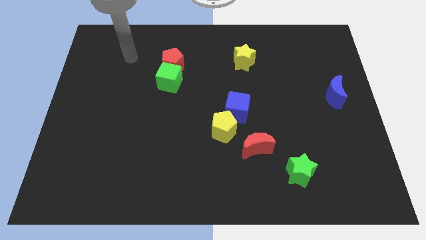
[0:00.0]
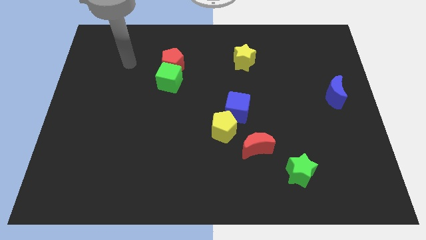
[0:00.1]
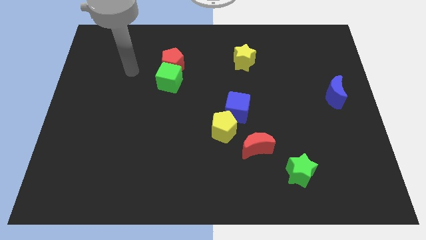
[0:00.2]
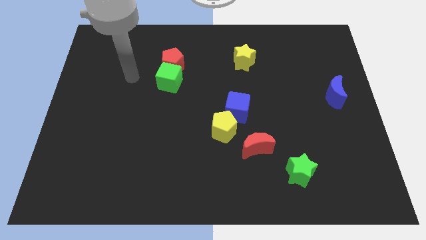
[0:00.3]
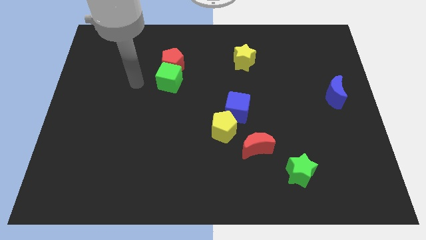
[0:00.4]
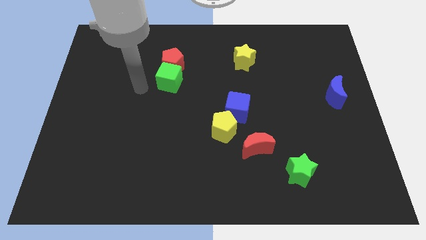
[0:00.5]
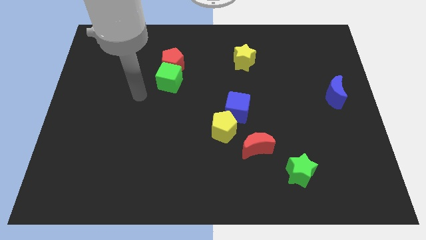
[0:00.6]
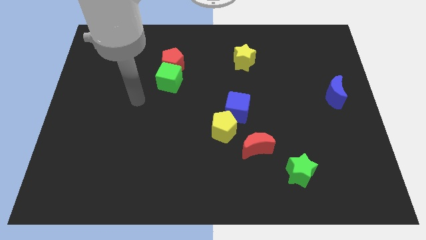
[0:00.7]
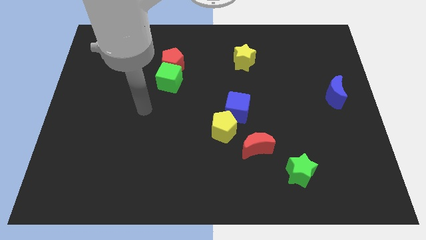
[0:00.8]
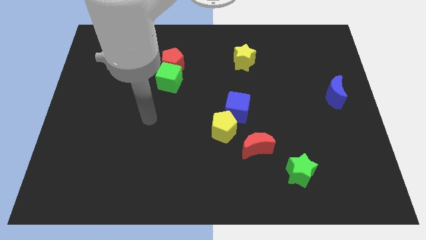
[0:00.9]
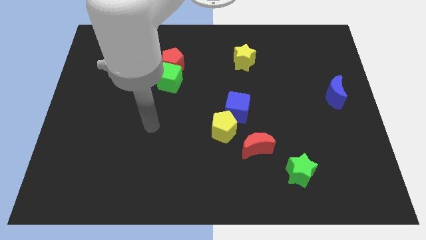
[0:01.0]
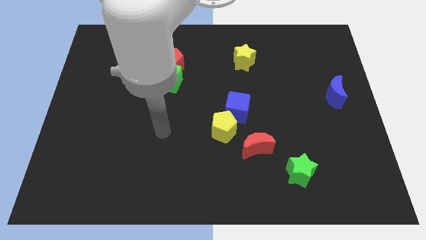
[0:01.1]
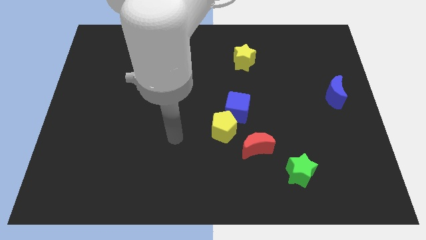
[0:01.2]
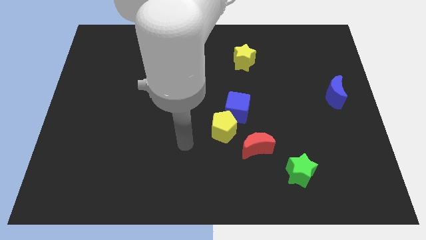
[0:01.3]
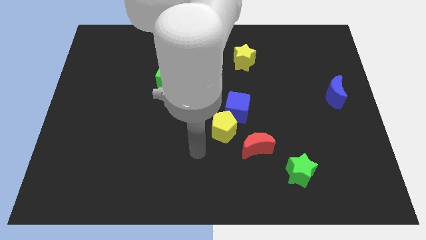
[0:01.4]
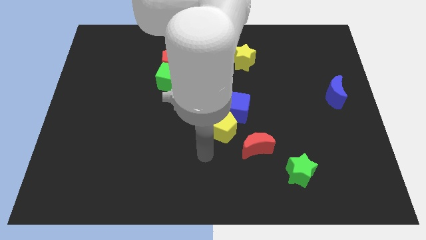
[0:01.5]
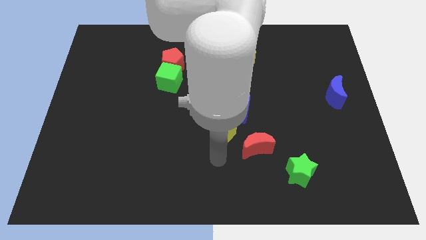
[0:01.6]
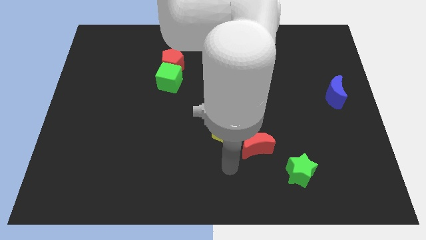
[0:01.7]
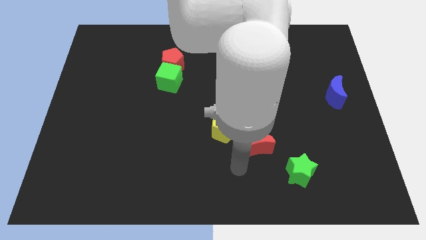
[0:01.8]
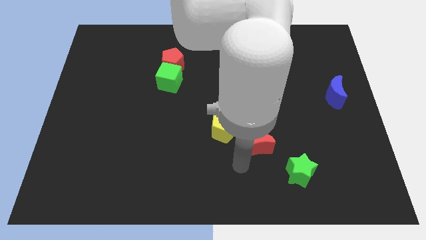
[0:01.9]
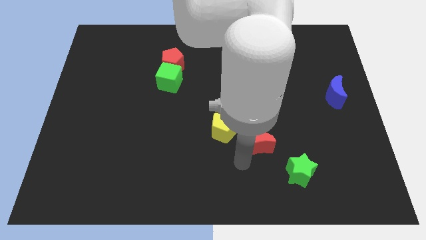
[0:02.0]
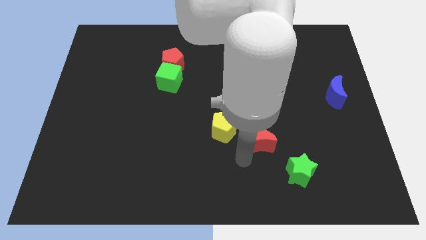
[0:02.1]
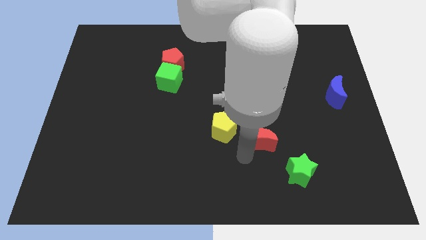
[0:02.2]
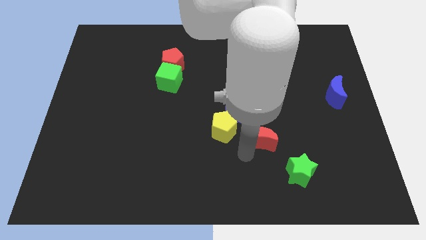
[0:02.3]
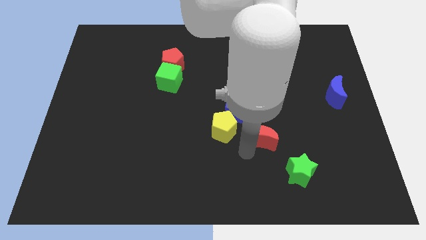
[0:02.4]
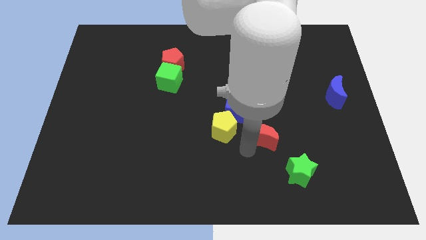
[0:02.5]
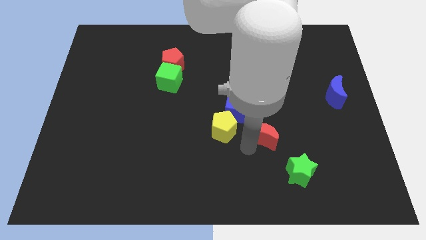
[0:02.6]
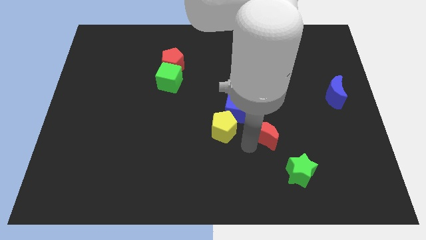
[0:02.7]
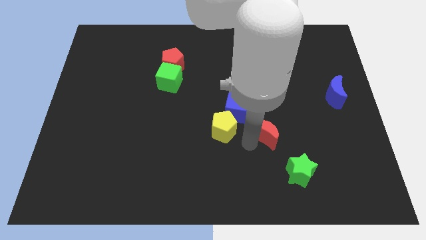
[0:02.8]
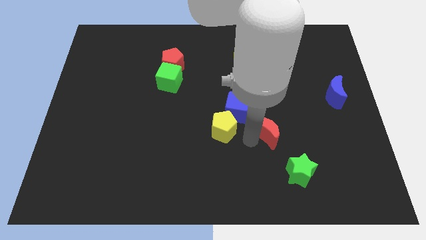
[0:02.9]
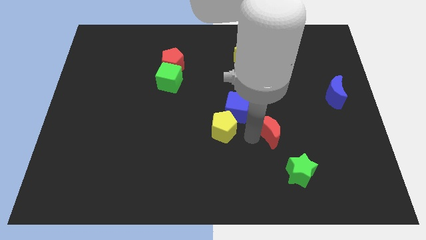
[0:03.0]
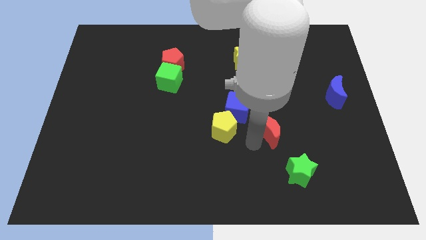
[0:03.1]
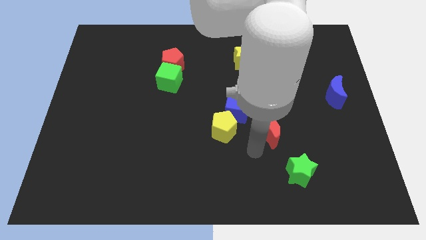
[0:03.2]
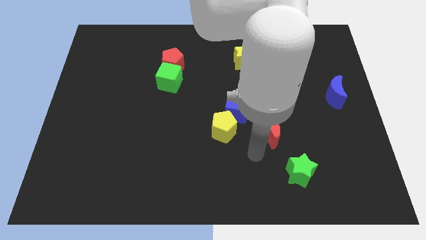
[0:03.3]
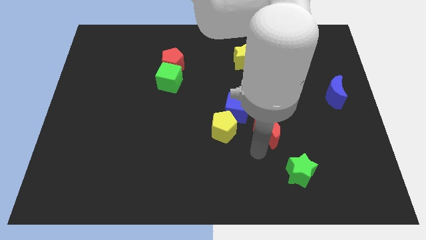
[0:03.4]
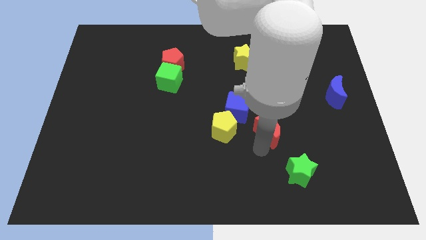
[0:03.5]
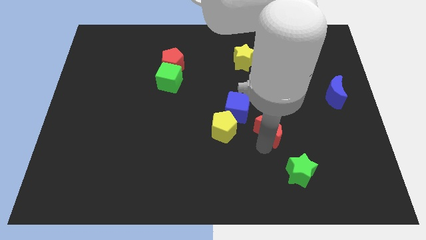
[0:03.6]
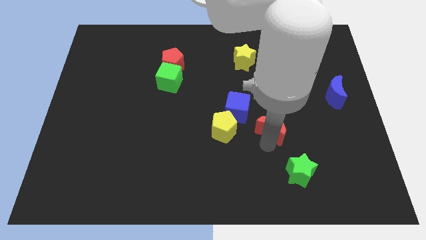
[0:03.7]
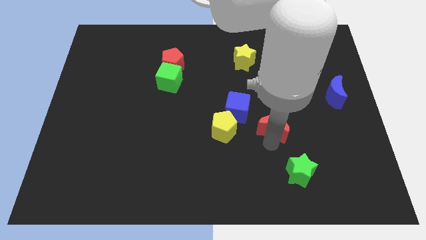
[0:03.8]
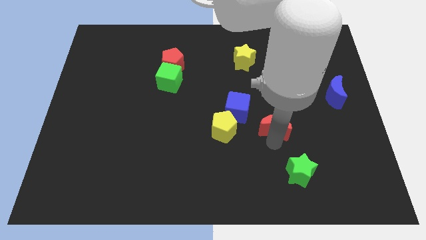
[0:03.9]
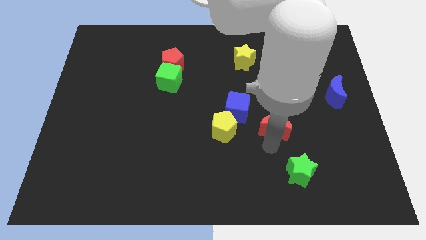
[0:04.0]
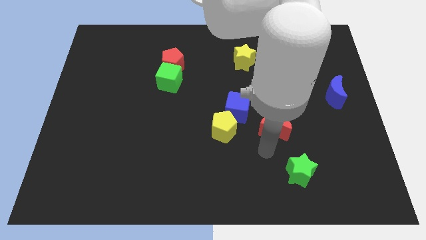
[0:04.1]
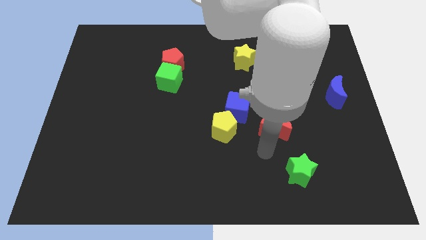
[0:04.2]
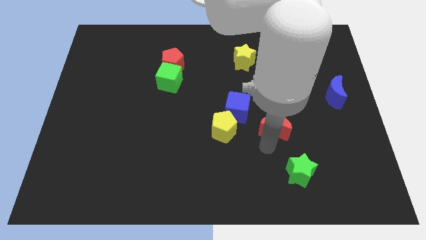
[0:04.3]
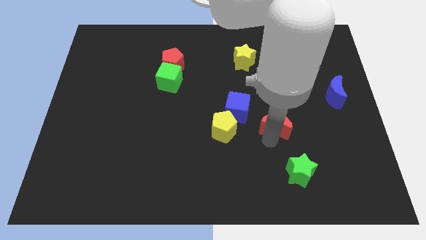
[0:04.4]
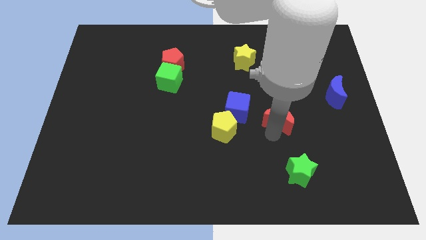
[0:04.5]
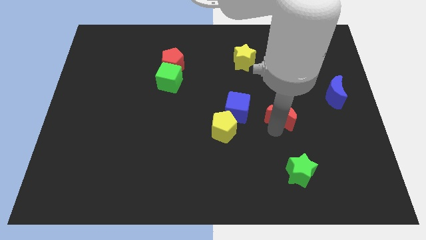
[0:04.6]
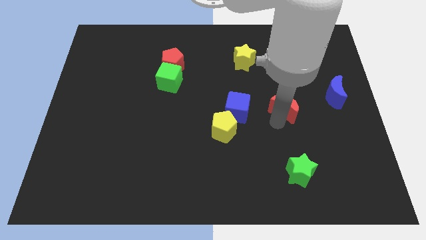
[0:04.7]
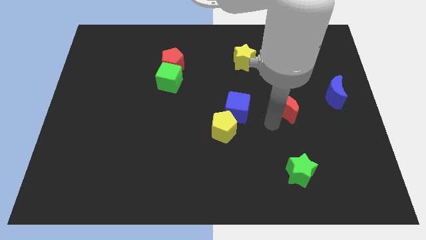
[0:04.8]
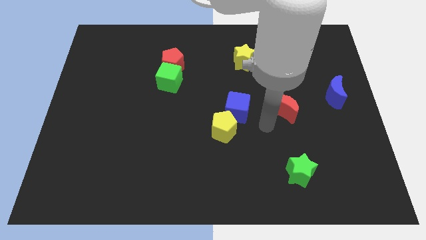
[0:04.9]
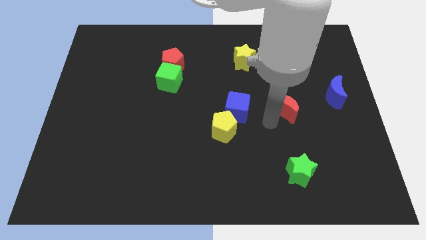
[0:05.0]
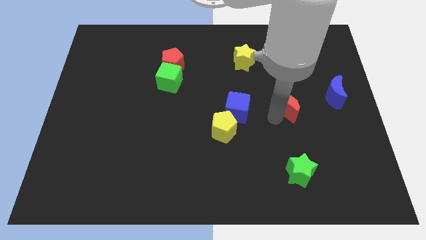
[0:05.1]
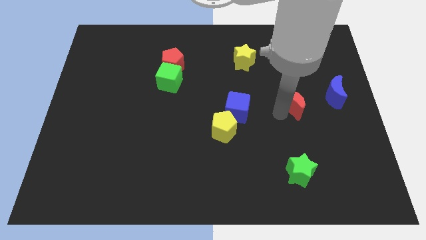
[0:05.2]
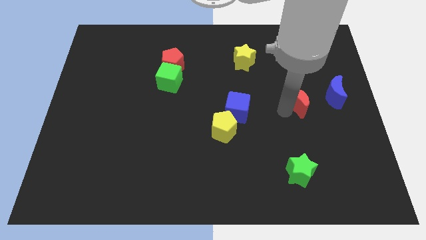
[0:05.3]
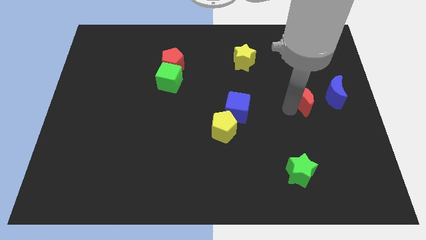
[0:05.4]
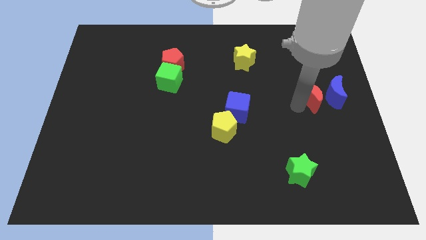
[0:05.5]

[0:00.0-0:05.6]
slide the red moon diagonally up and to the left of the blue moon
